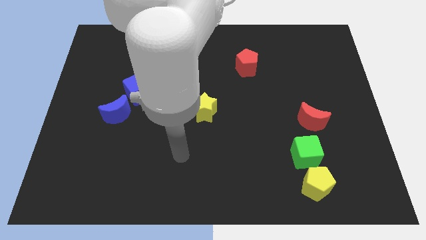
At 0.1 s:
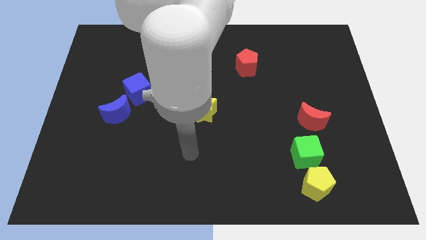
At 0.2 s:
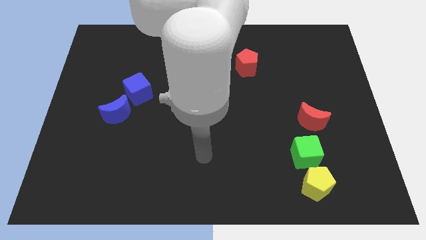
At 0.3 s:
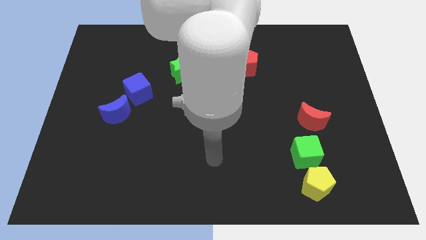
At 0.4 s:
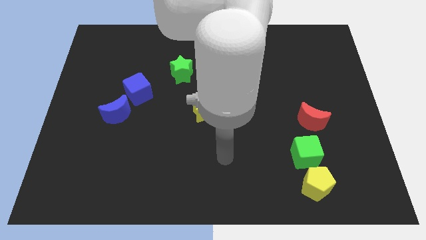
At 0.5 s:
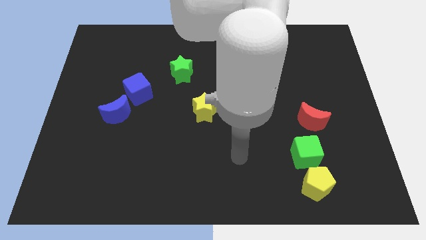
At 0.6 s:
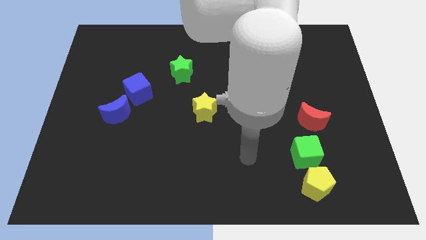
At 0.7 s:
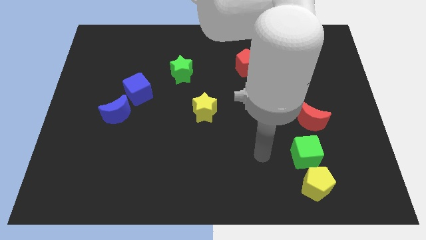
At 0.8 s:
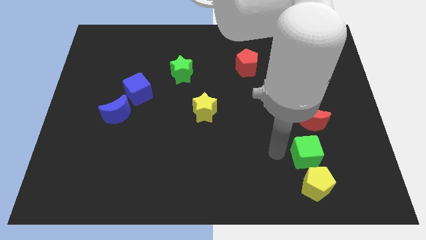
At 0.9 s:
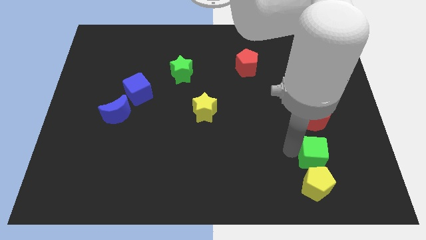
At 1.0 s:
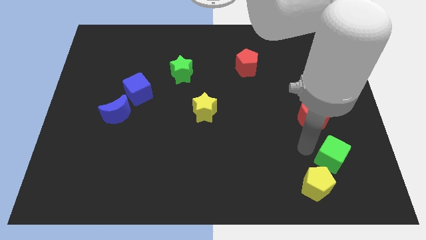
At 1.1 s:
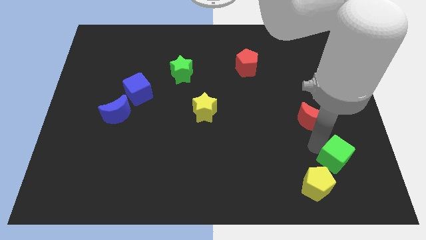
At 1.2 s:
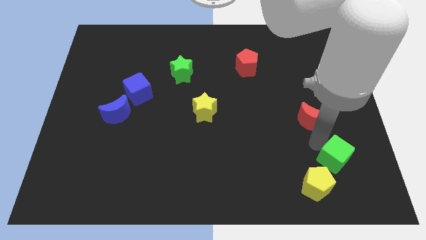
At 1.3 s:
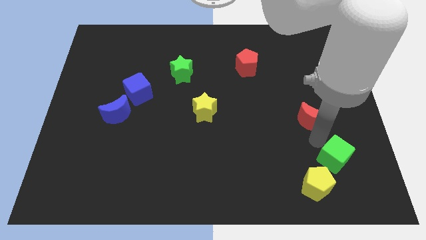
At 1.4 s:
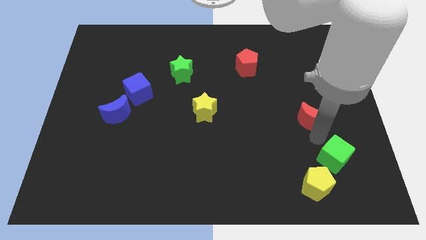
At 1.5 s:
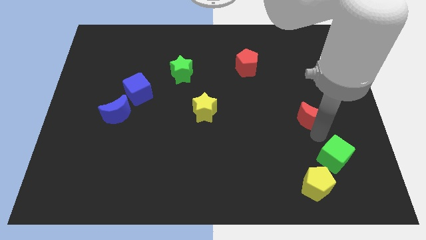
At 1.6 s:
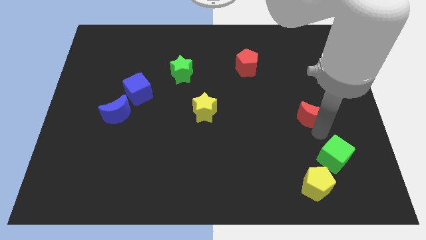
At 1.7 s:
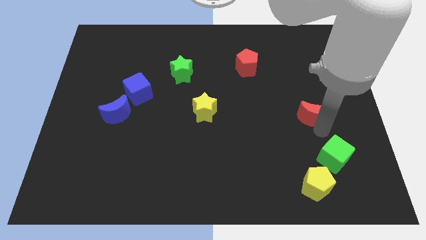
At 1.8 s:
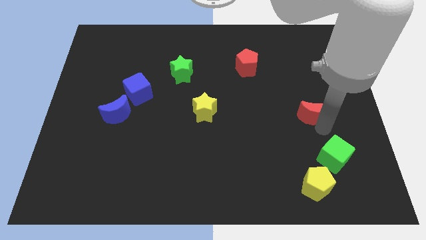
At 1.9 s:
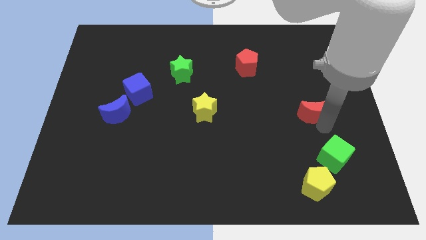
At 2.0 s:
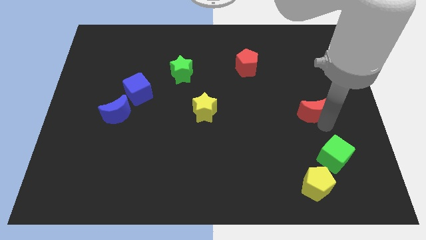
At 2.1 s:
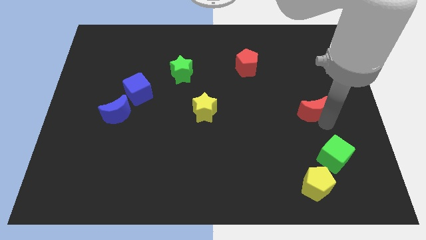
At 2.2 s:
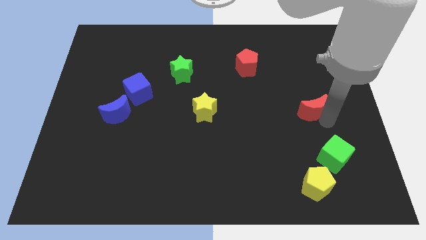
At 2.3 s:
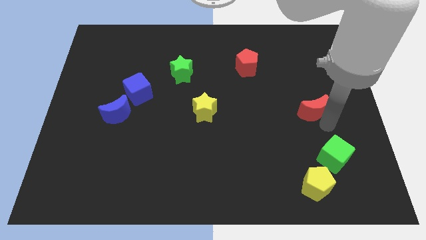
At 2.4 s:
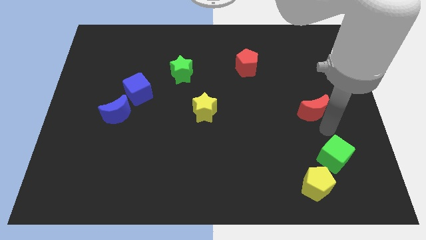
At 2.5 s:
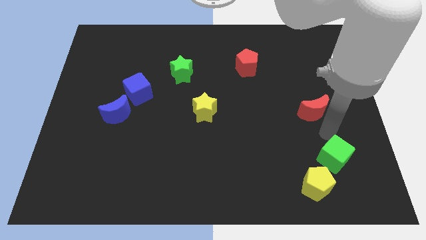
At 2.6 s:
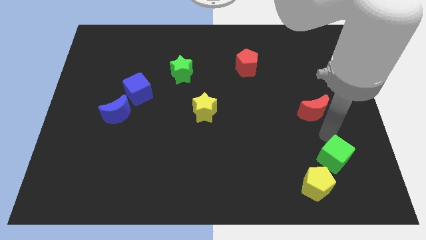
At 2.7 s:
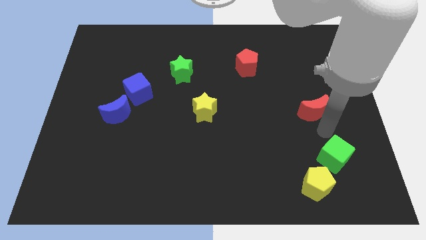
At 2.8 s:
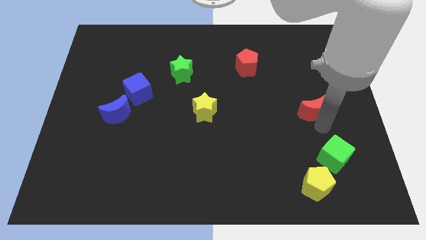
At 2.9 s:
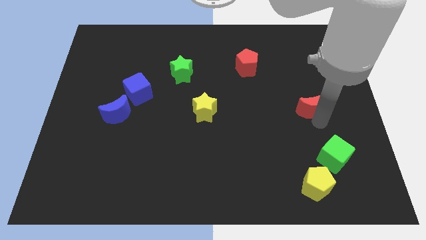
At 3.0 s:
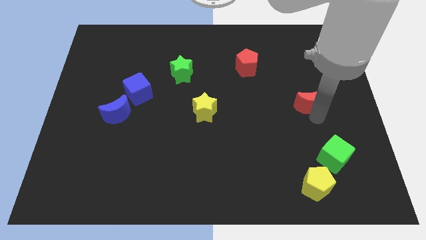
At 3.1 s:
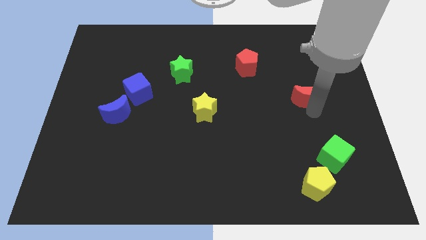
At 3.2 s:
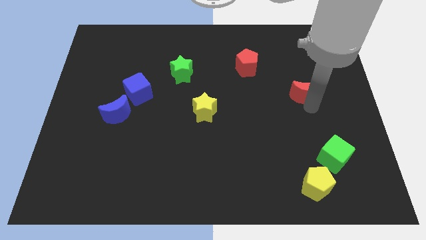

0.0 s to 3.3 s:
slightly move the red moon up

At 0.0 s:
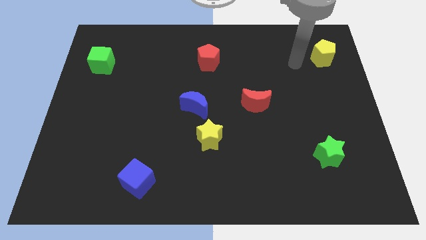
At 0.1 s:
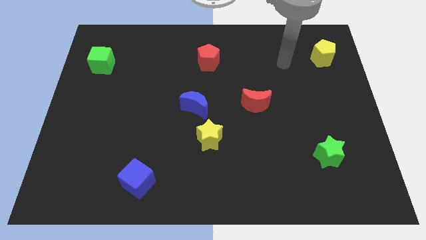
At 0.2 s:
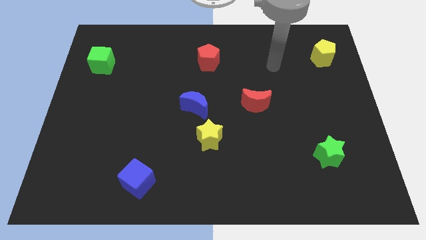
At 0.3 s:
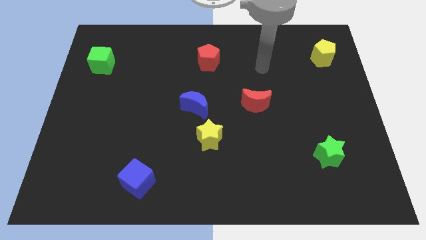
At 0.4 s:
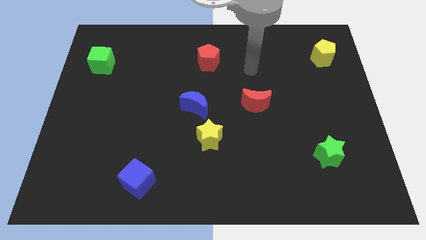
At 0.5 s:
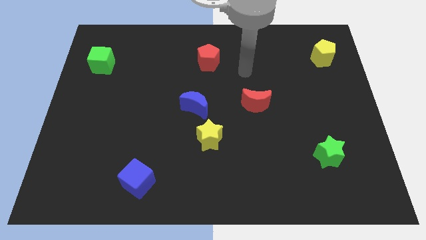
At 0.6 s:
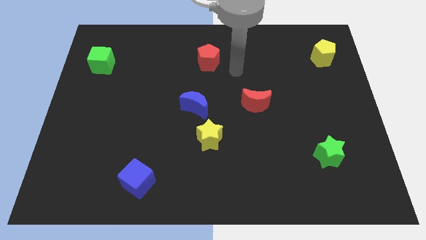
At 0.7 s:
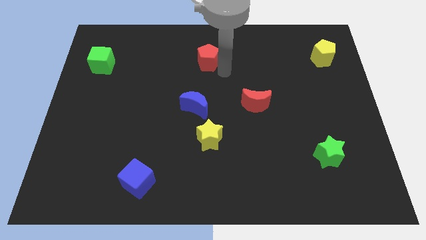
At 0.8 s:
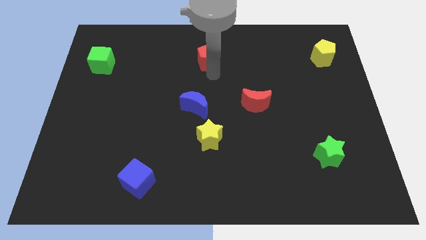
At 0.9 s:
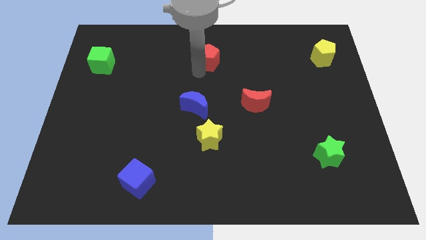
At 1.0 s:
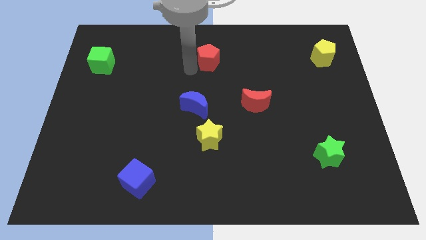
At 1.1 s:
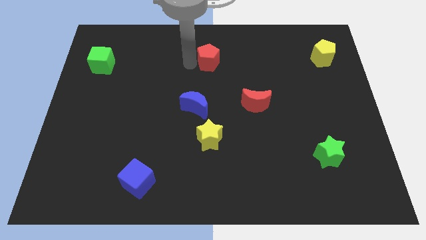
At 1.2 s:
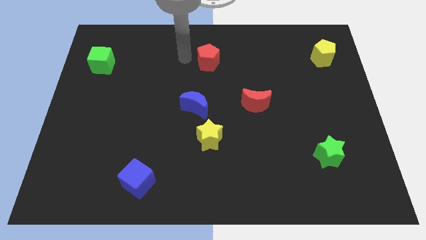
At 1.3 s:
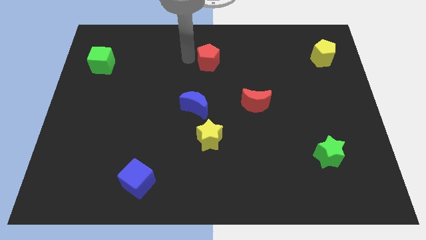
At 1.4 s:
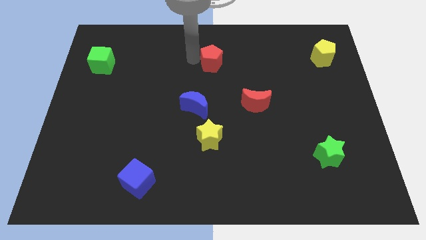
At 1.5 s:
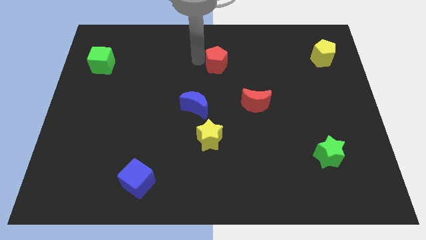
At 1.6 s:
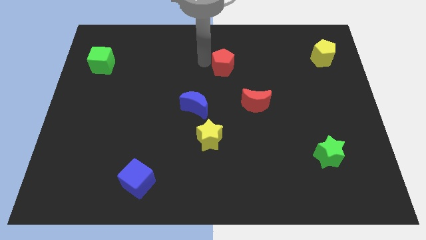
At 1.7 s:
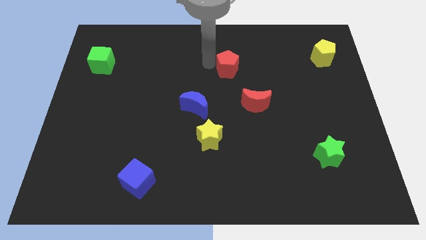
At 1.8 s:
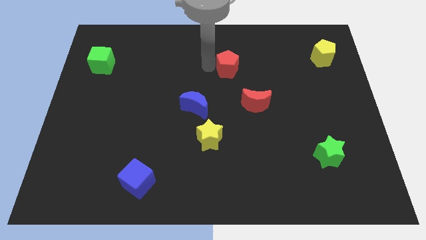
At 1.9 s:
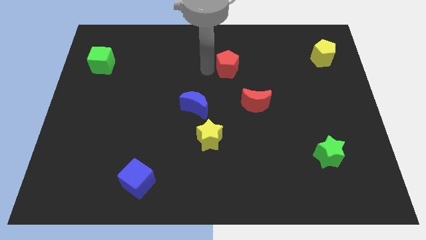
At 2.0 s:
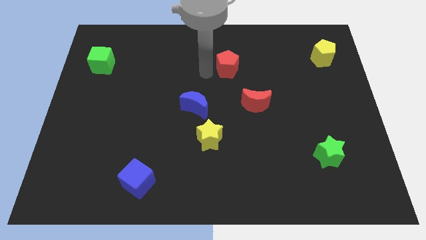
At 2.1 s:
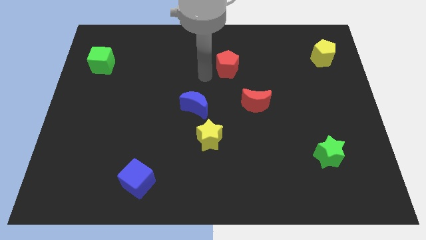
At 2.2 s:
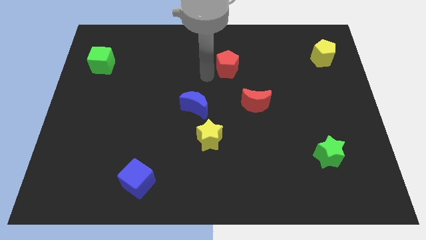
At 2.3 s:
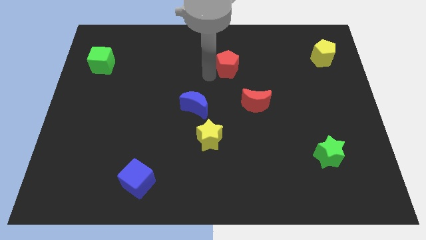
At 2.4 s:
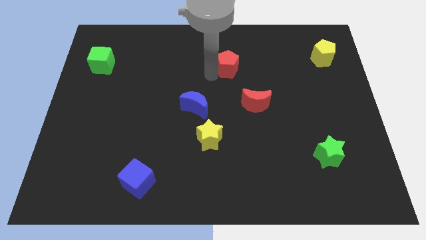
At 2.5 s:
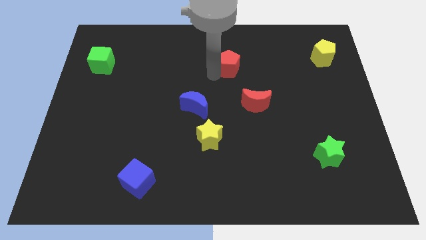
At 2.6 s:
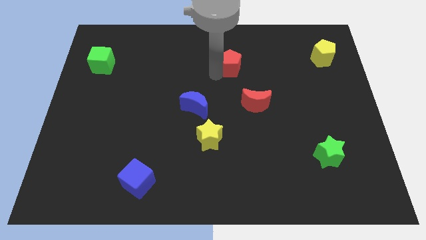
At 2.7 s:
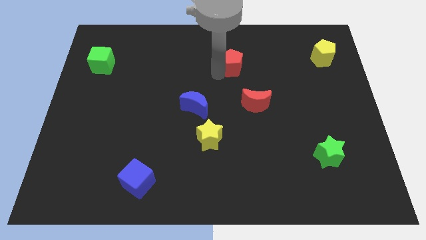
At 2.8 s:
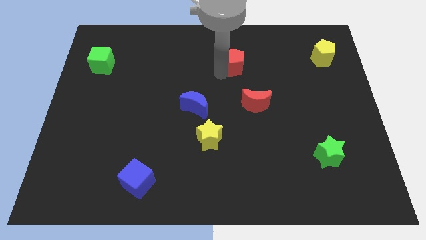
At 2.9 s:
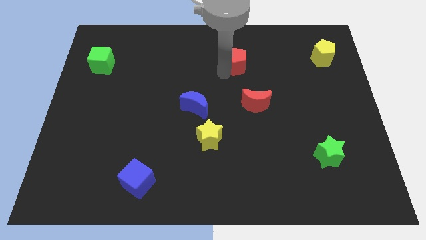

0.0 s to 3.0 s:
push the red pentagon slightly to the right

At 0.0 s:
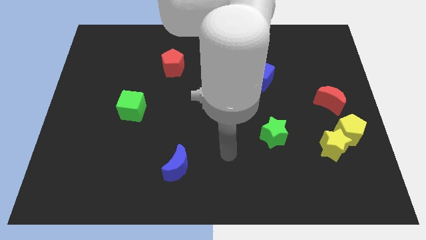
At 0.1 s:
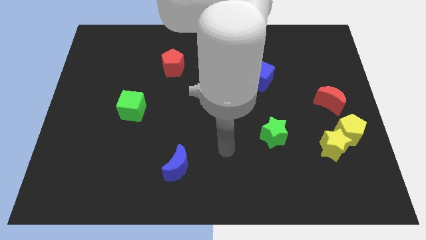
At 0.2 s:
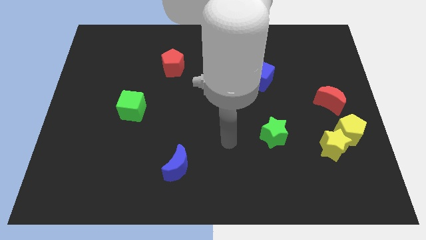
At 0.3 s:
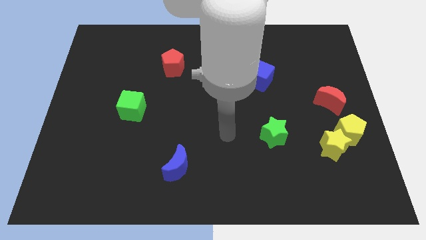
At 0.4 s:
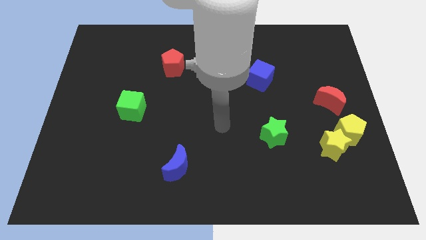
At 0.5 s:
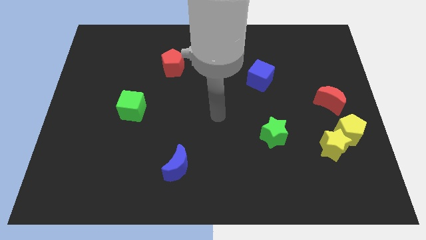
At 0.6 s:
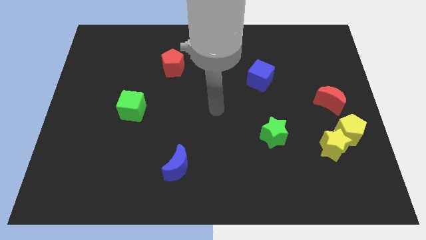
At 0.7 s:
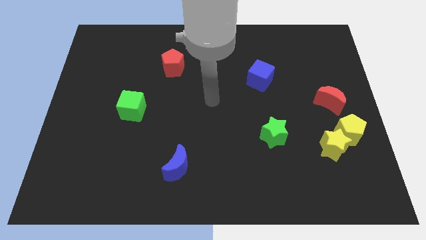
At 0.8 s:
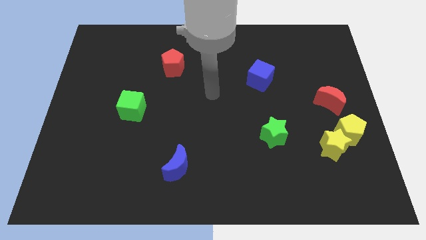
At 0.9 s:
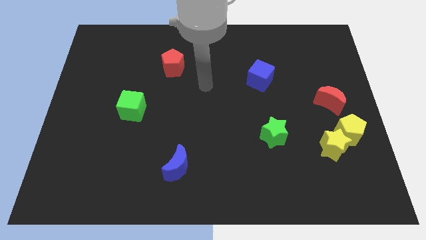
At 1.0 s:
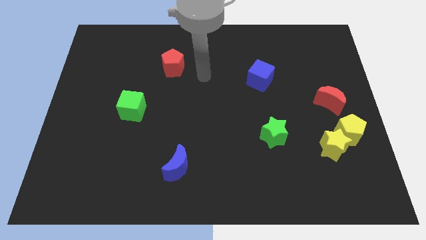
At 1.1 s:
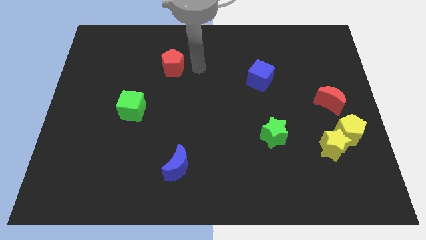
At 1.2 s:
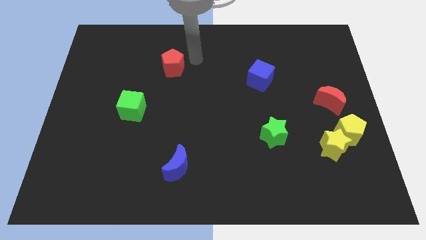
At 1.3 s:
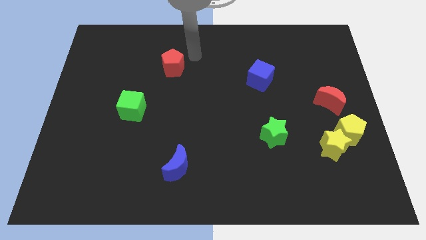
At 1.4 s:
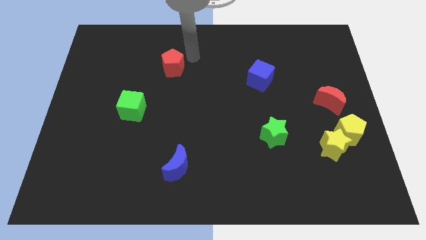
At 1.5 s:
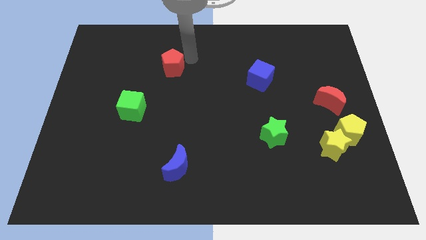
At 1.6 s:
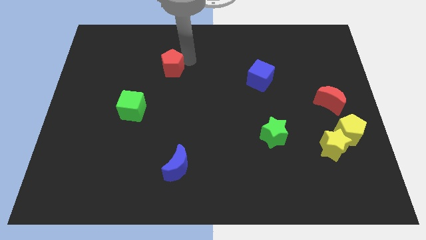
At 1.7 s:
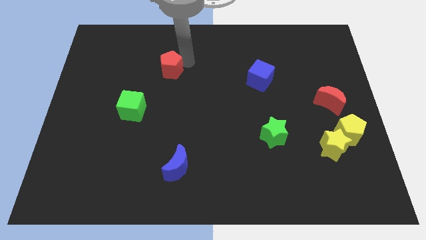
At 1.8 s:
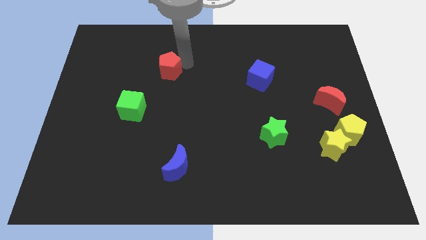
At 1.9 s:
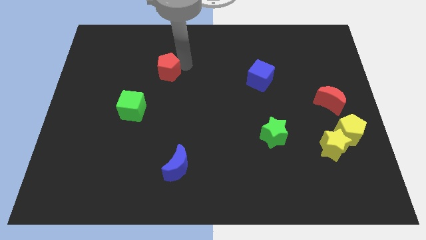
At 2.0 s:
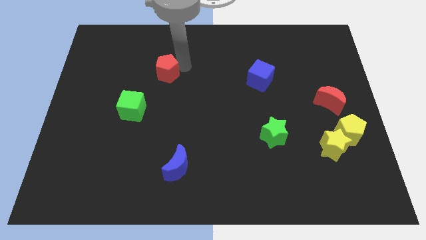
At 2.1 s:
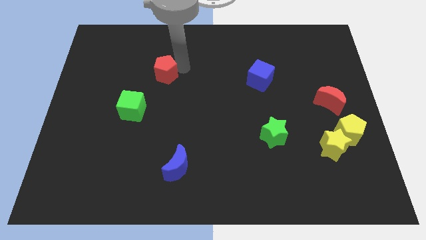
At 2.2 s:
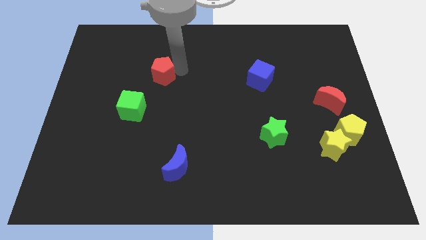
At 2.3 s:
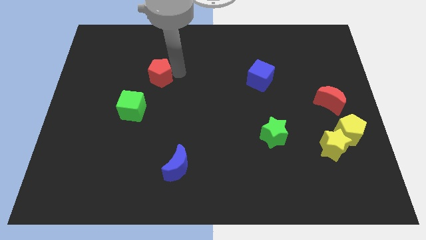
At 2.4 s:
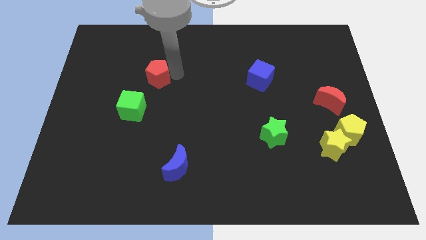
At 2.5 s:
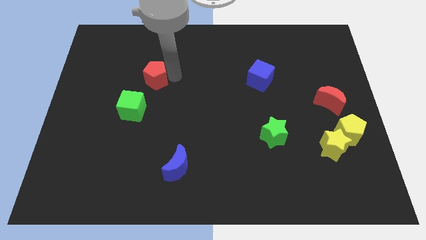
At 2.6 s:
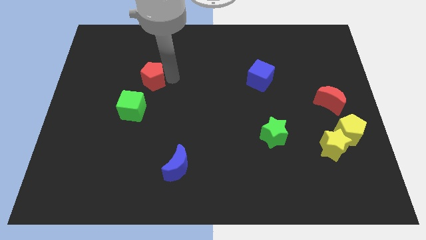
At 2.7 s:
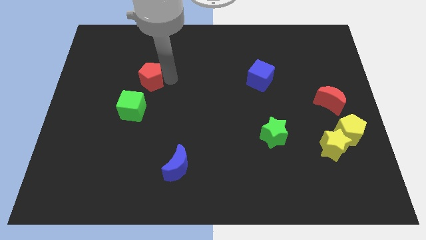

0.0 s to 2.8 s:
push the red pentagon downwards and to the left a little
